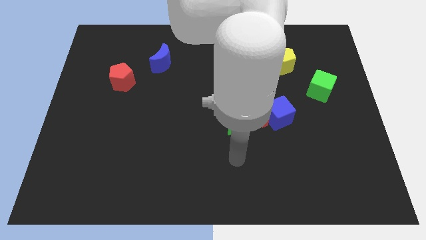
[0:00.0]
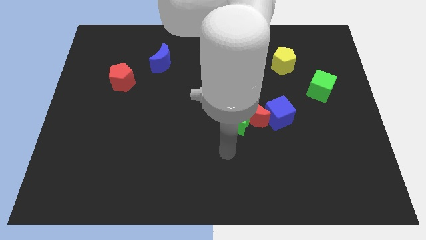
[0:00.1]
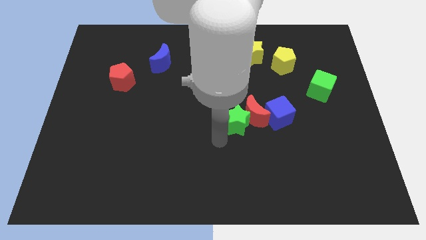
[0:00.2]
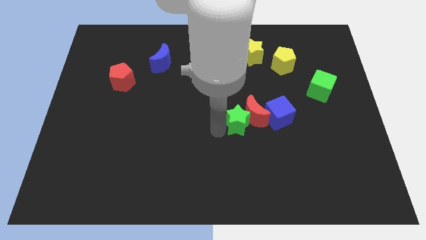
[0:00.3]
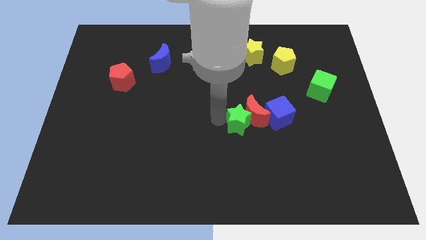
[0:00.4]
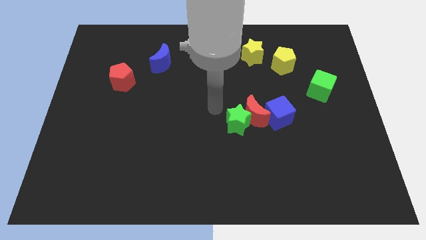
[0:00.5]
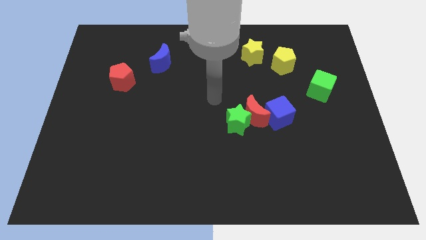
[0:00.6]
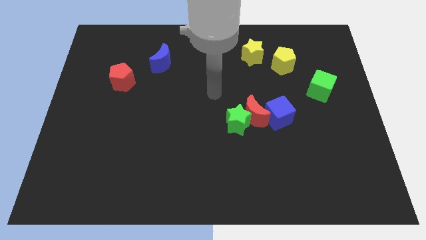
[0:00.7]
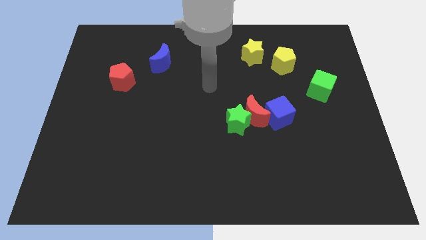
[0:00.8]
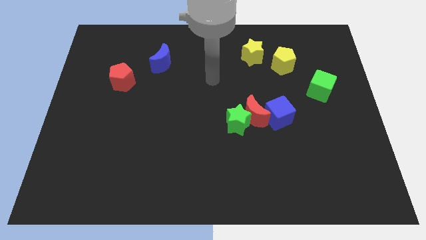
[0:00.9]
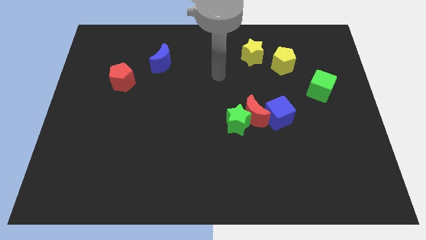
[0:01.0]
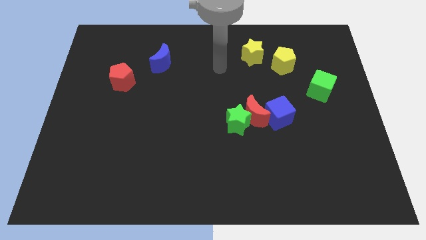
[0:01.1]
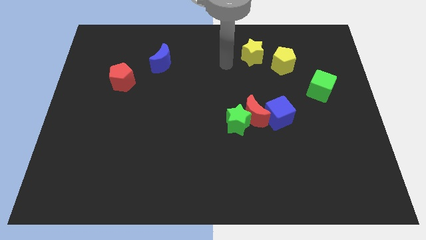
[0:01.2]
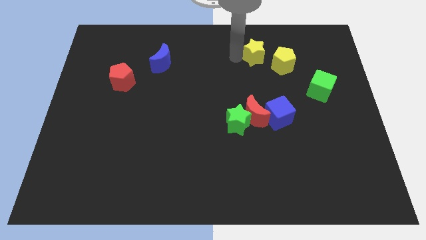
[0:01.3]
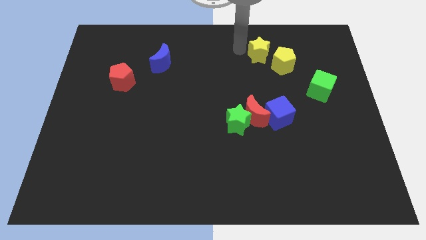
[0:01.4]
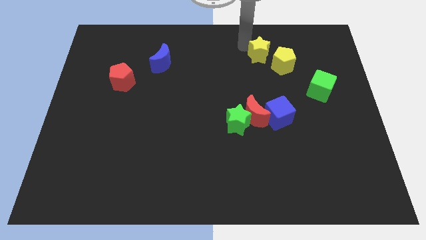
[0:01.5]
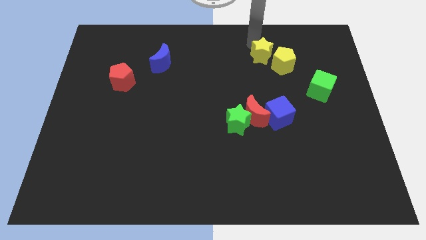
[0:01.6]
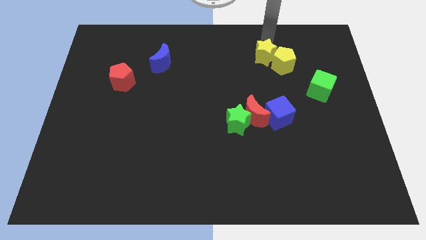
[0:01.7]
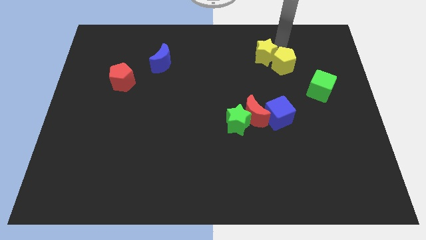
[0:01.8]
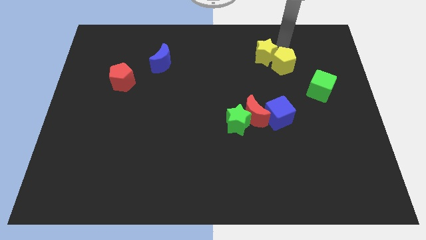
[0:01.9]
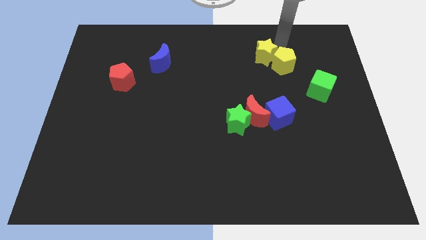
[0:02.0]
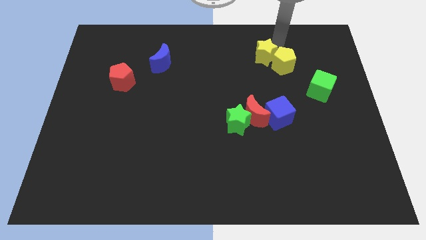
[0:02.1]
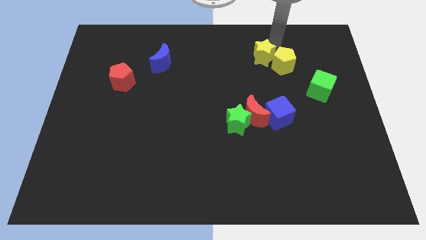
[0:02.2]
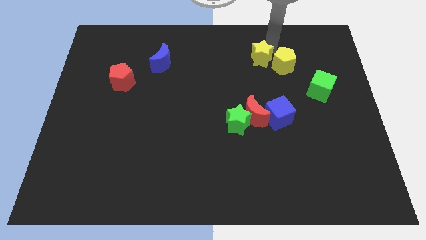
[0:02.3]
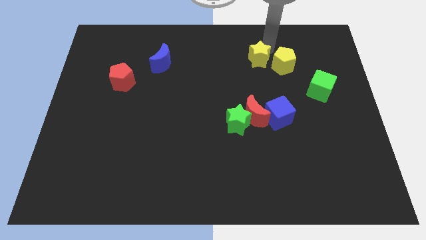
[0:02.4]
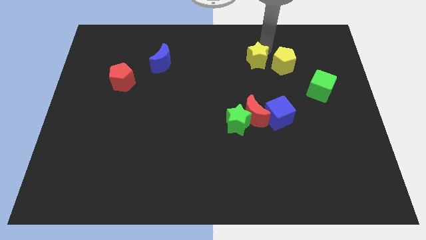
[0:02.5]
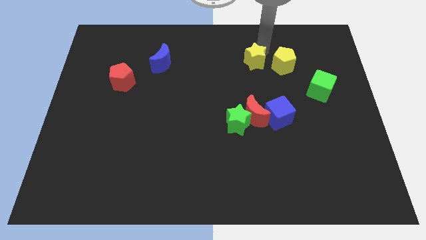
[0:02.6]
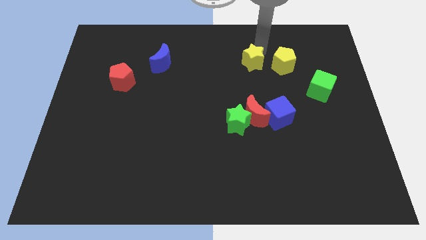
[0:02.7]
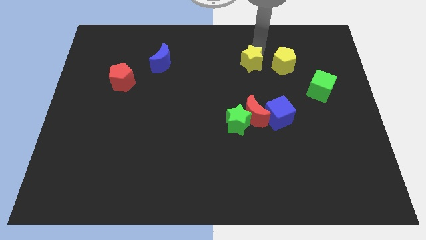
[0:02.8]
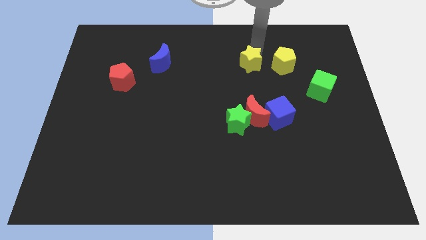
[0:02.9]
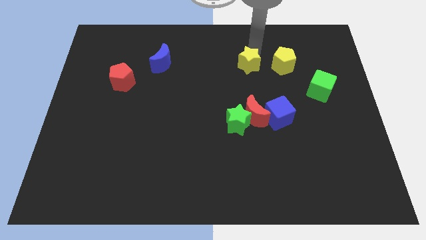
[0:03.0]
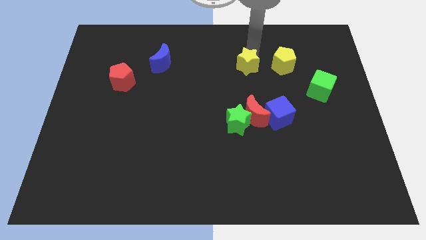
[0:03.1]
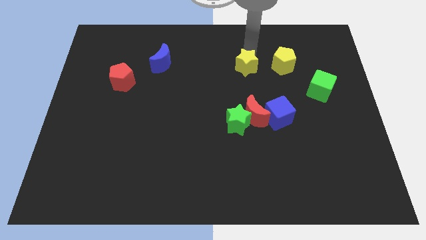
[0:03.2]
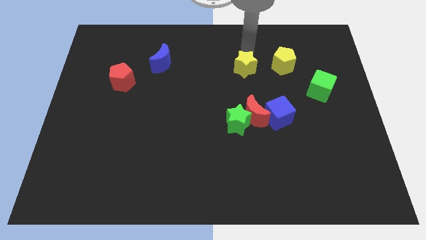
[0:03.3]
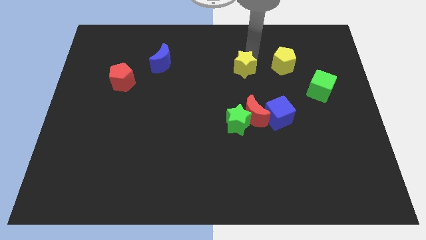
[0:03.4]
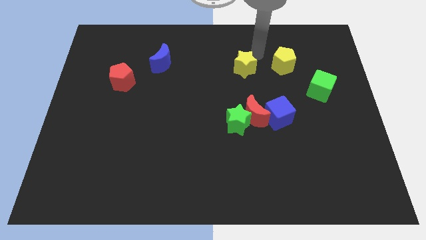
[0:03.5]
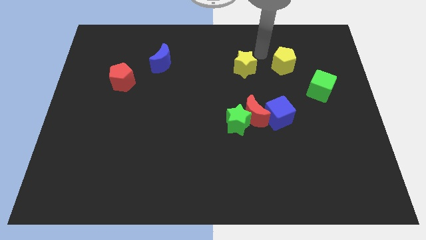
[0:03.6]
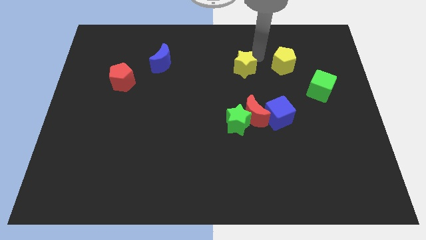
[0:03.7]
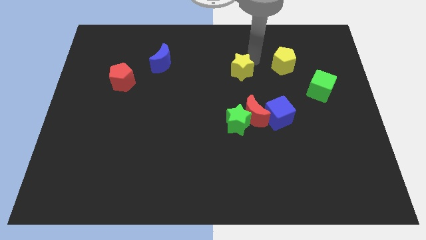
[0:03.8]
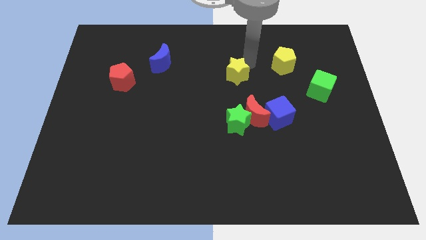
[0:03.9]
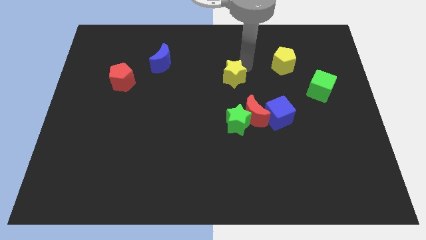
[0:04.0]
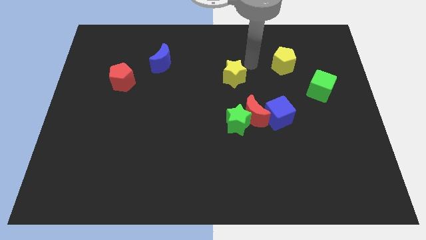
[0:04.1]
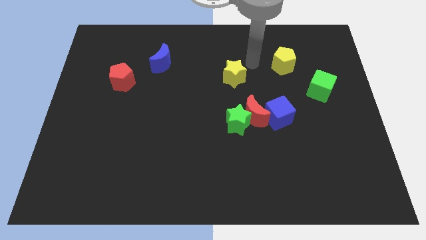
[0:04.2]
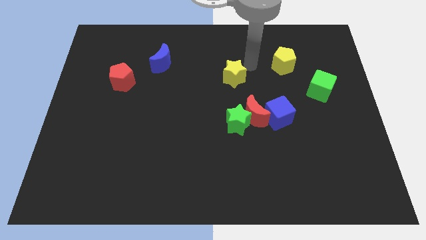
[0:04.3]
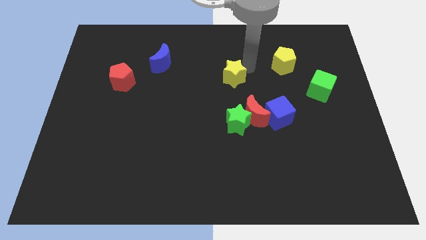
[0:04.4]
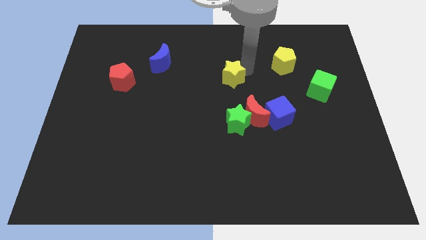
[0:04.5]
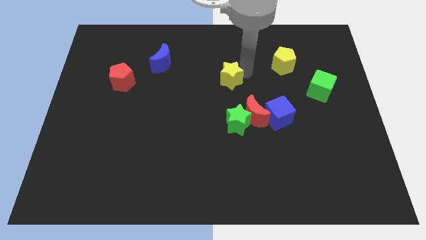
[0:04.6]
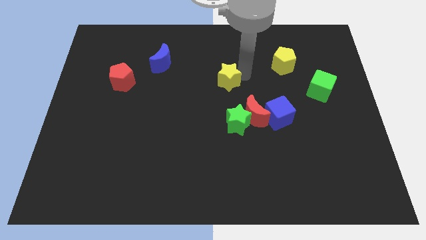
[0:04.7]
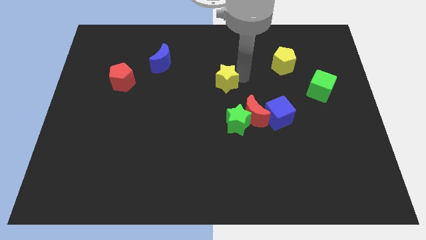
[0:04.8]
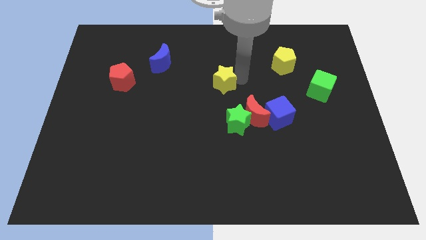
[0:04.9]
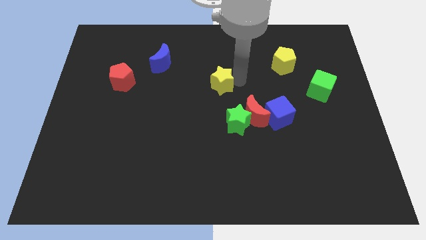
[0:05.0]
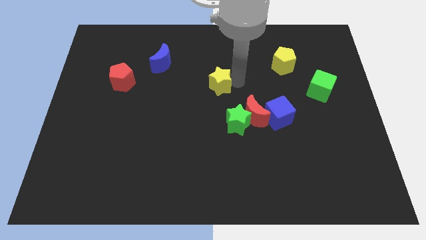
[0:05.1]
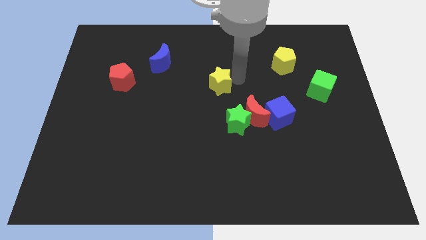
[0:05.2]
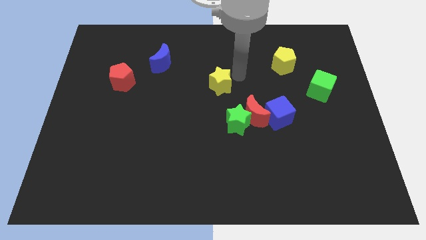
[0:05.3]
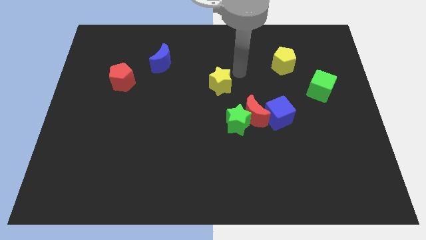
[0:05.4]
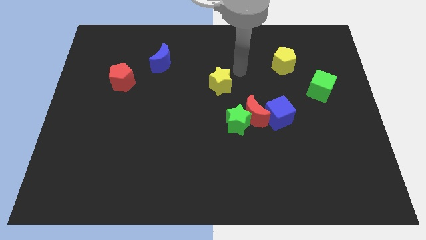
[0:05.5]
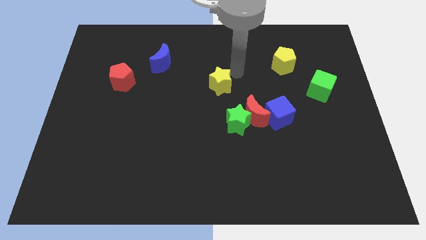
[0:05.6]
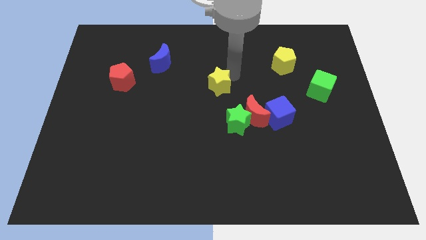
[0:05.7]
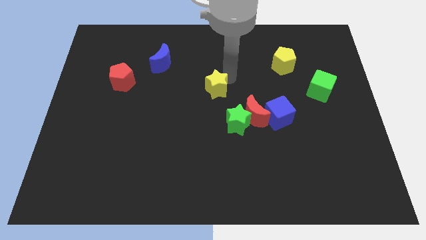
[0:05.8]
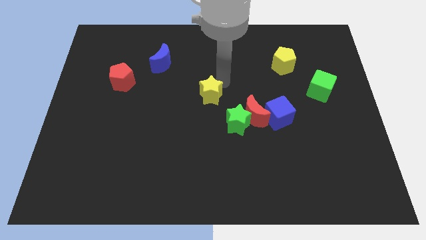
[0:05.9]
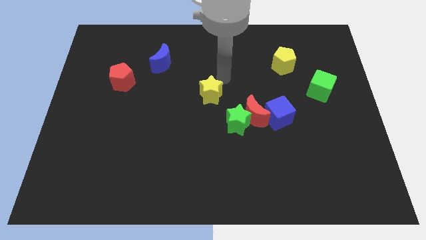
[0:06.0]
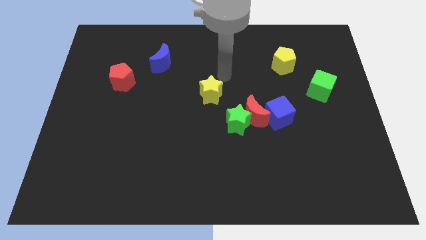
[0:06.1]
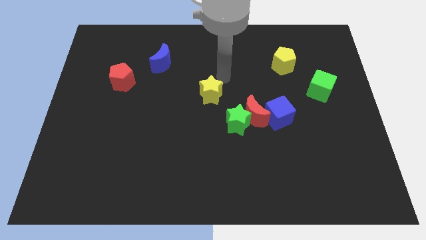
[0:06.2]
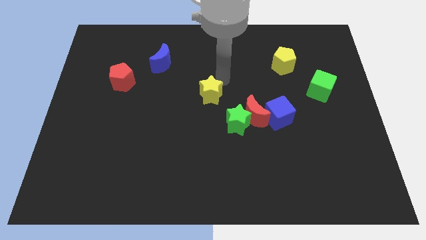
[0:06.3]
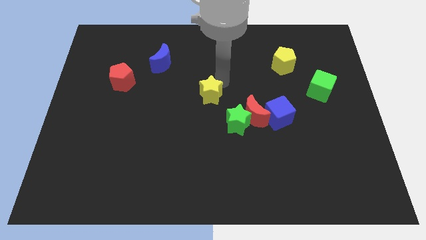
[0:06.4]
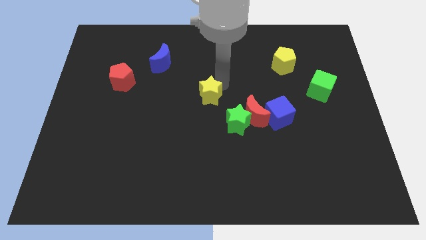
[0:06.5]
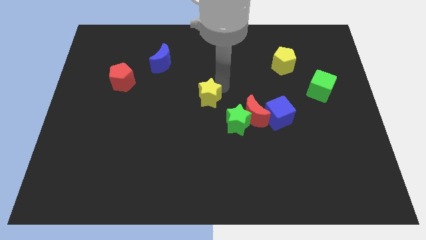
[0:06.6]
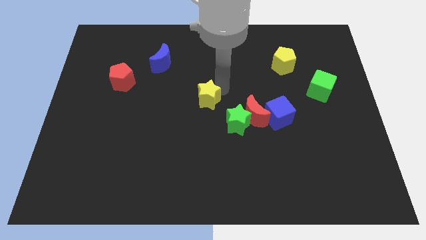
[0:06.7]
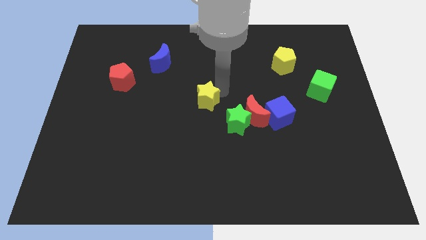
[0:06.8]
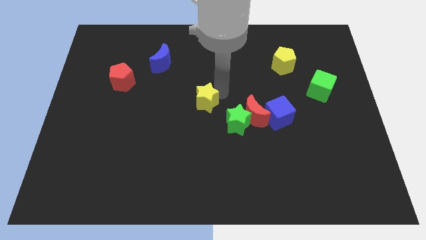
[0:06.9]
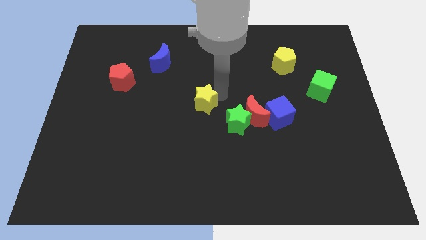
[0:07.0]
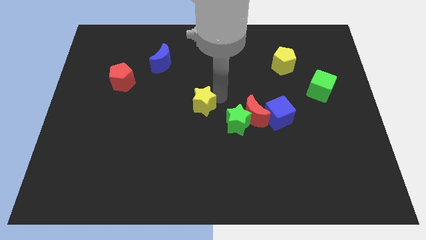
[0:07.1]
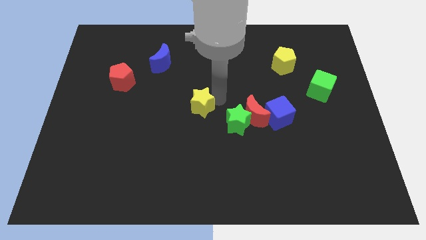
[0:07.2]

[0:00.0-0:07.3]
move the yellow star just left of the green star

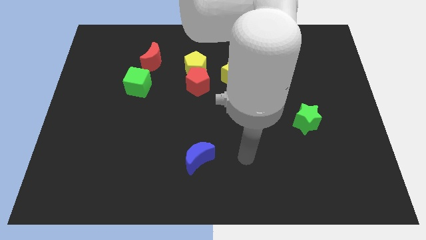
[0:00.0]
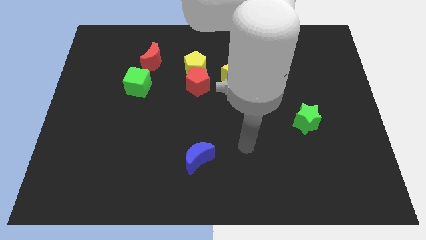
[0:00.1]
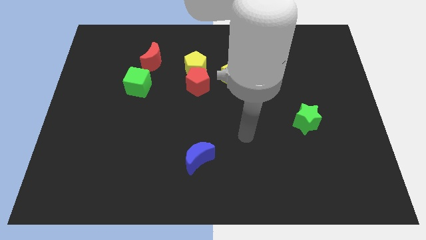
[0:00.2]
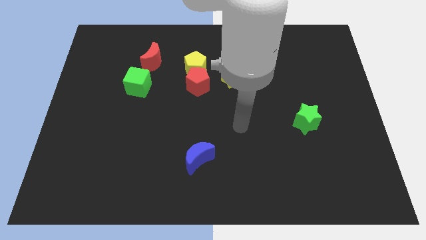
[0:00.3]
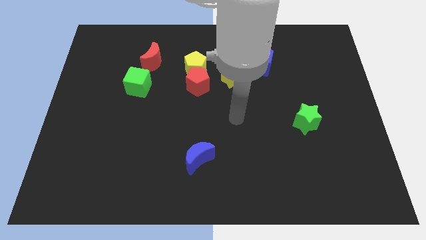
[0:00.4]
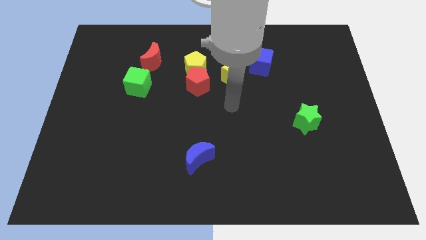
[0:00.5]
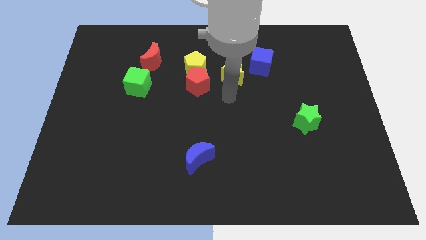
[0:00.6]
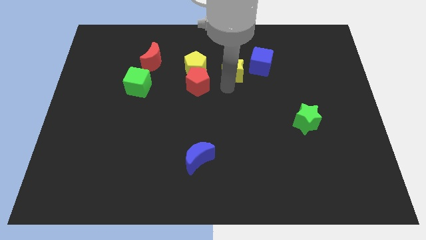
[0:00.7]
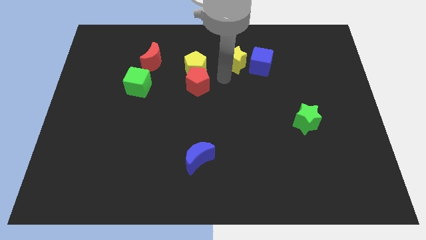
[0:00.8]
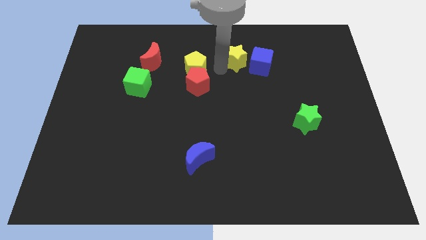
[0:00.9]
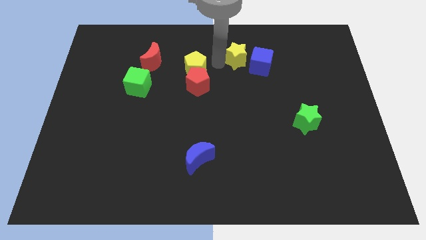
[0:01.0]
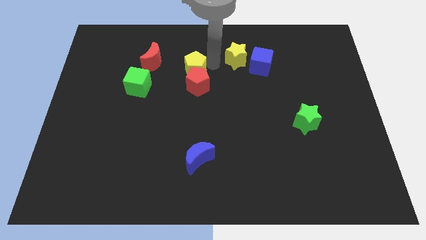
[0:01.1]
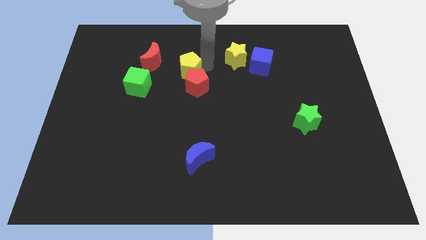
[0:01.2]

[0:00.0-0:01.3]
put the yellow pentagon diagonally down and to the right of the red moon
